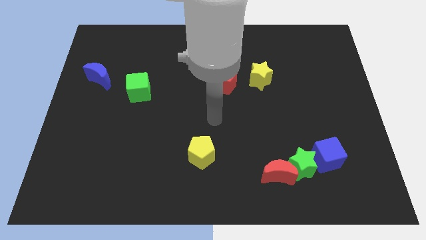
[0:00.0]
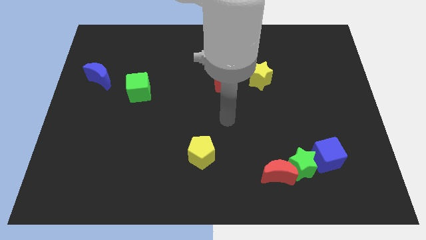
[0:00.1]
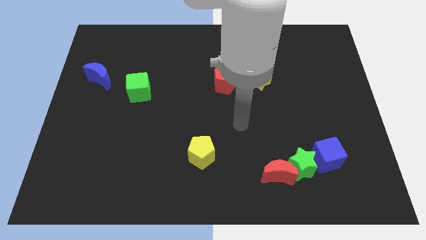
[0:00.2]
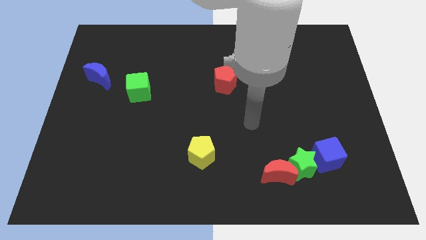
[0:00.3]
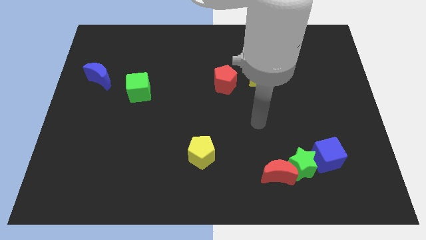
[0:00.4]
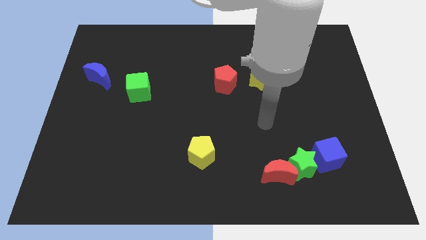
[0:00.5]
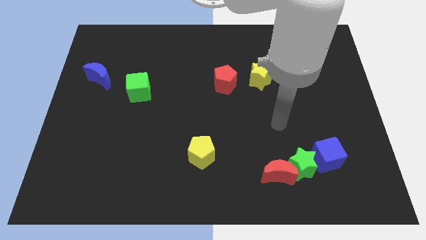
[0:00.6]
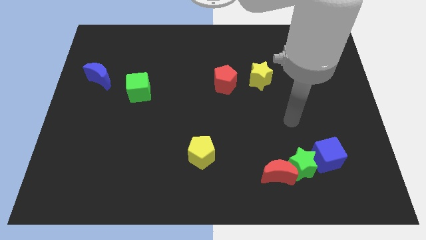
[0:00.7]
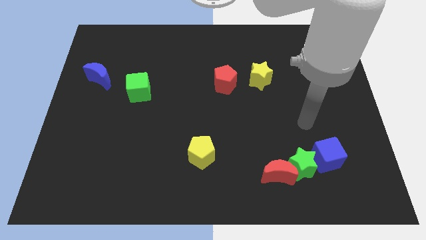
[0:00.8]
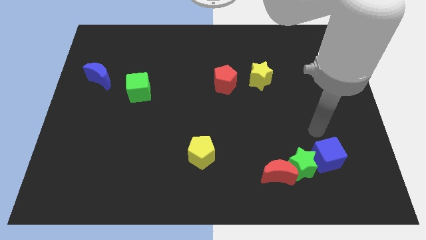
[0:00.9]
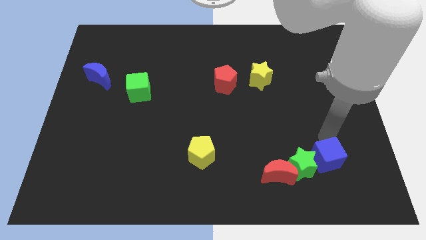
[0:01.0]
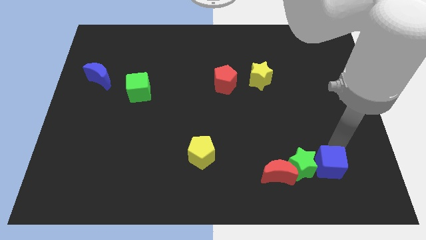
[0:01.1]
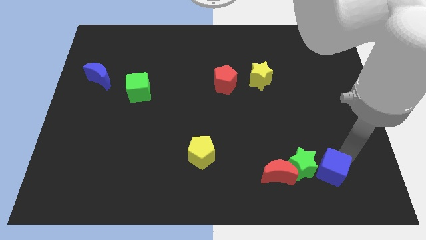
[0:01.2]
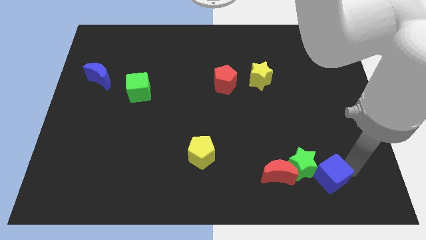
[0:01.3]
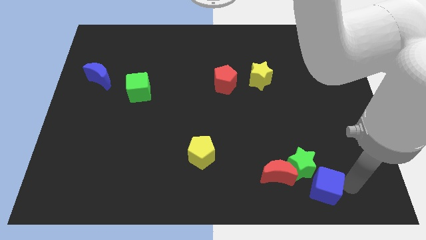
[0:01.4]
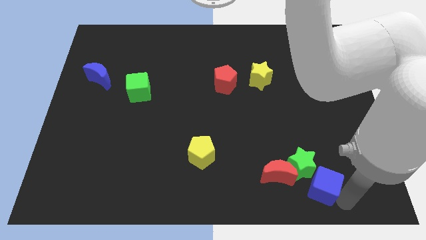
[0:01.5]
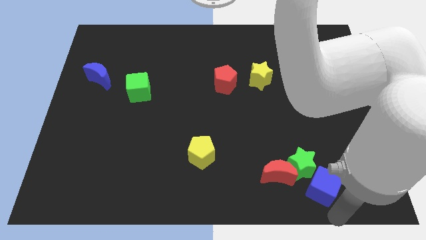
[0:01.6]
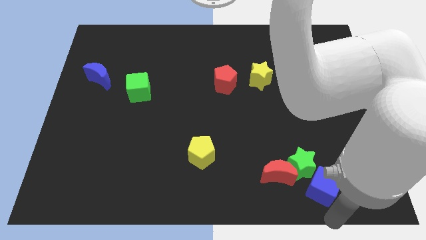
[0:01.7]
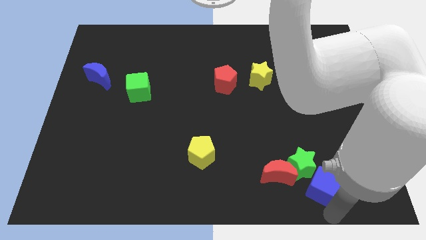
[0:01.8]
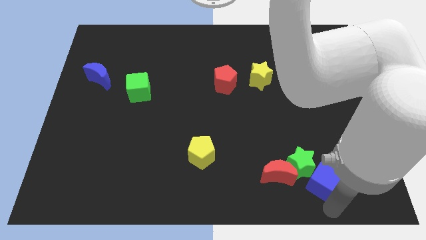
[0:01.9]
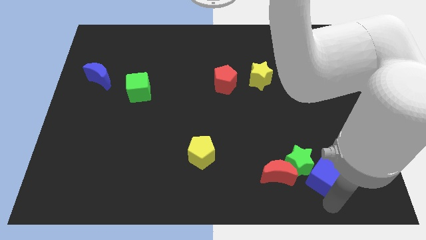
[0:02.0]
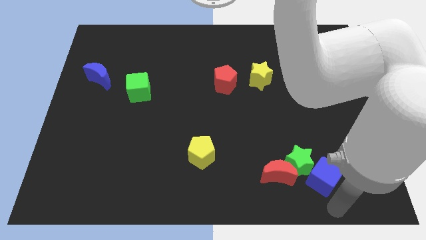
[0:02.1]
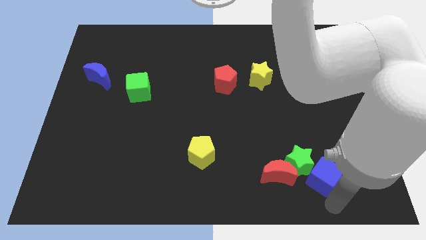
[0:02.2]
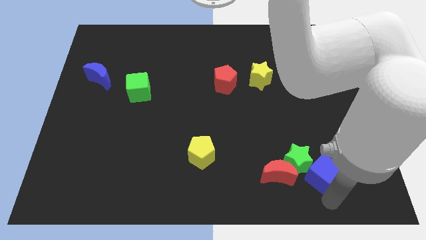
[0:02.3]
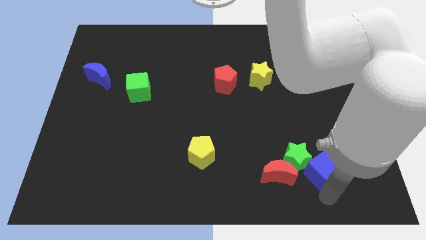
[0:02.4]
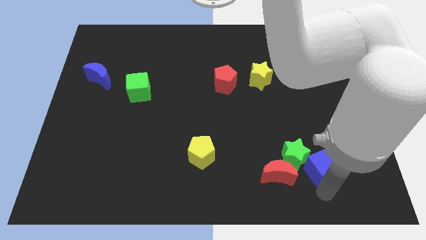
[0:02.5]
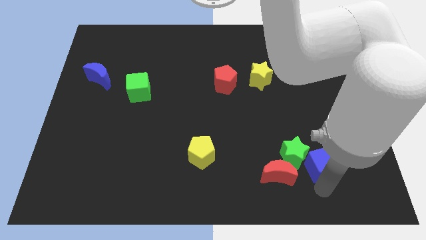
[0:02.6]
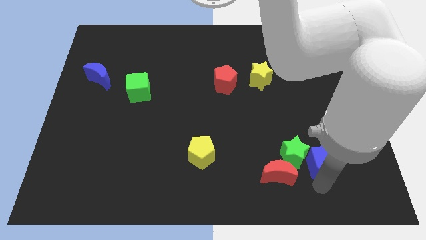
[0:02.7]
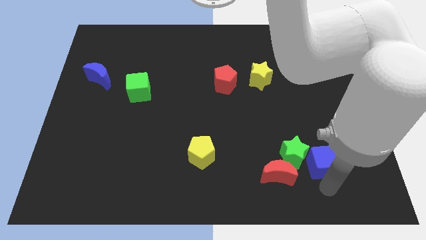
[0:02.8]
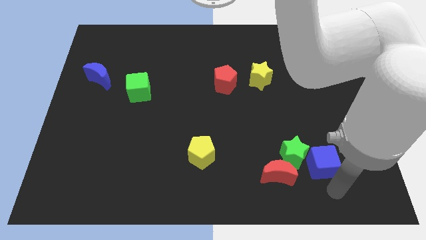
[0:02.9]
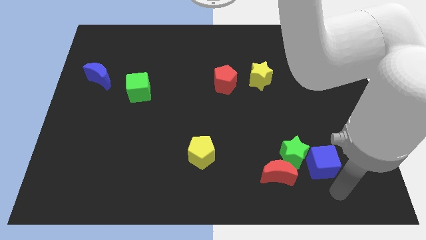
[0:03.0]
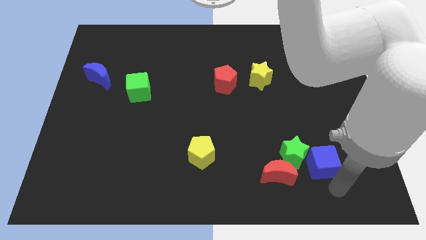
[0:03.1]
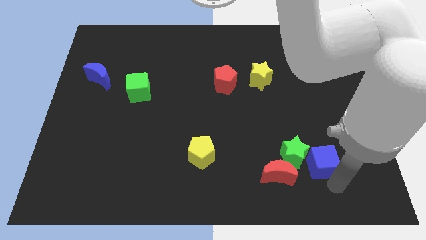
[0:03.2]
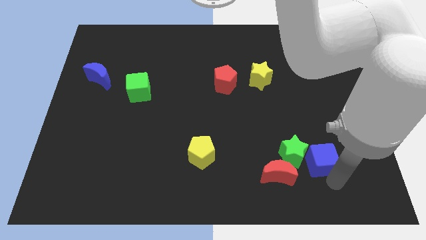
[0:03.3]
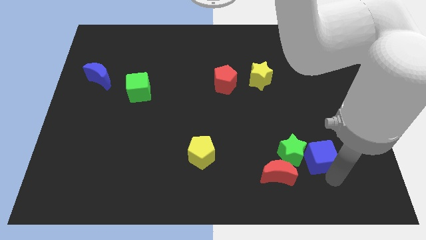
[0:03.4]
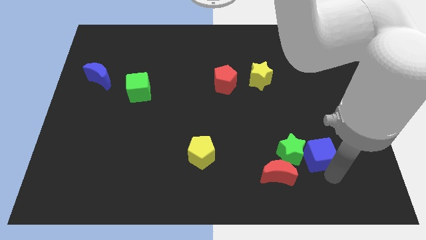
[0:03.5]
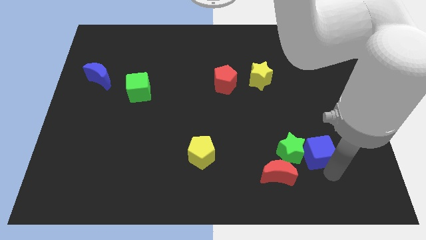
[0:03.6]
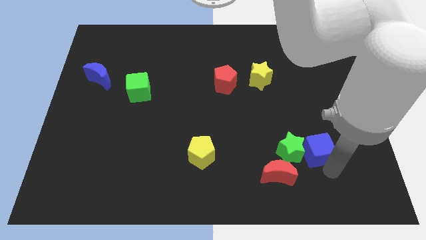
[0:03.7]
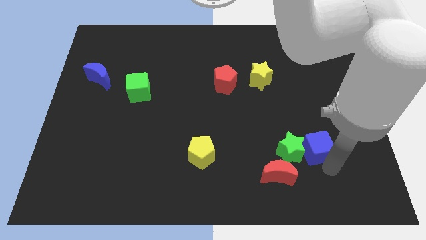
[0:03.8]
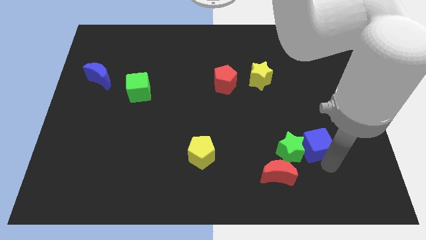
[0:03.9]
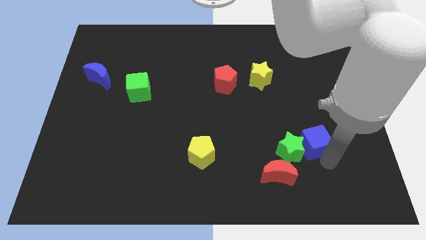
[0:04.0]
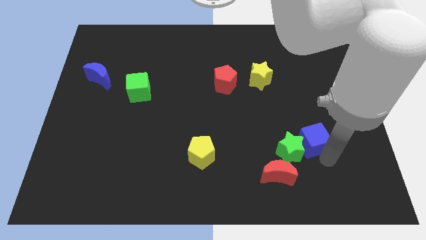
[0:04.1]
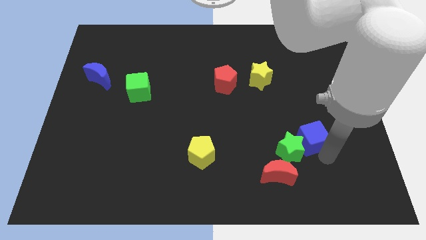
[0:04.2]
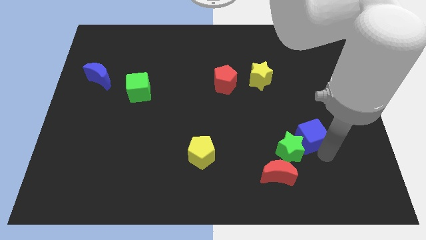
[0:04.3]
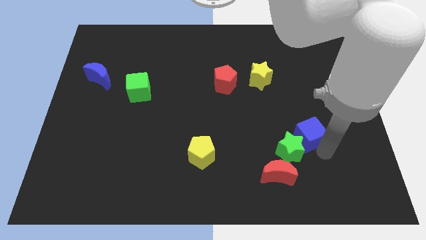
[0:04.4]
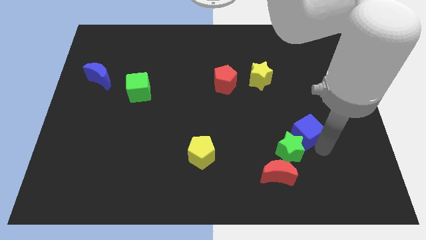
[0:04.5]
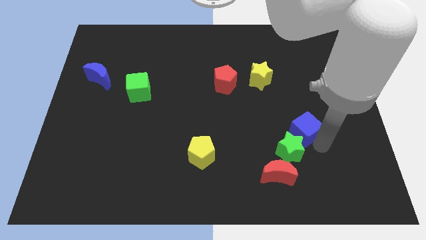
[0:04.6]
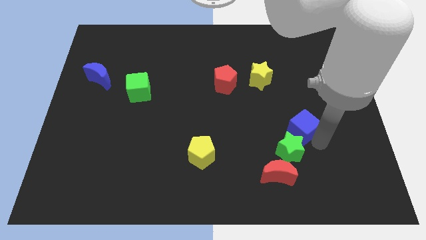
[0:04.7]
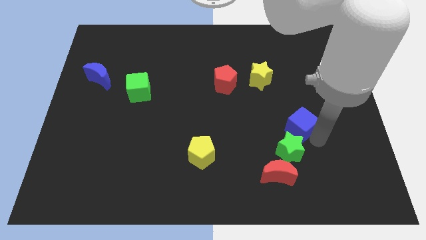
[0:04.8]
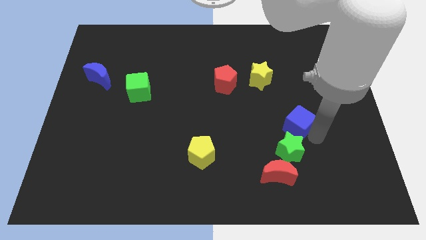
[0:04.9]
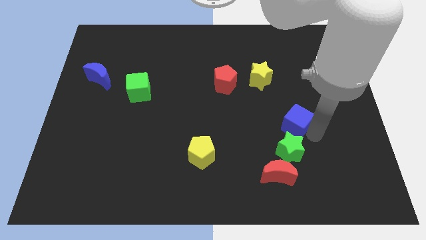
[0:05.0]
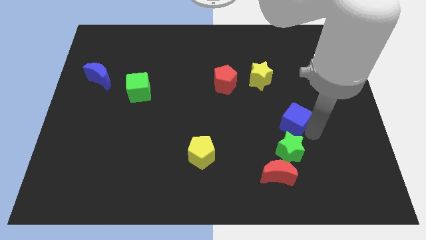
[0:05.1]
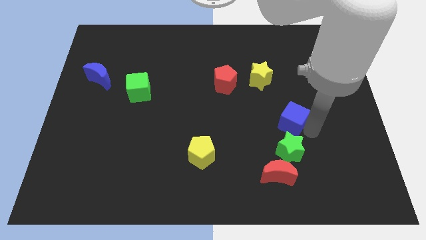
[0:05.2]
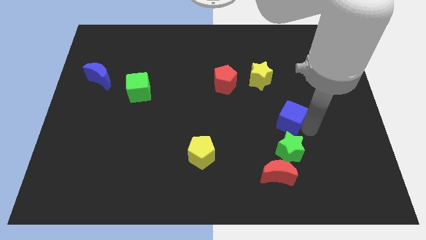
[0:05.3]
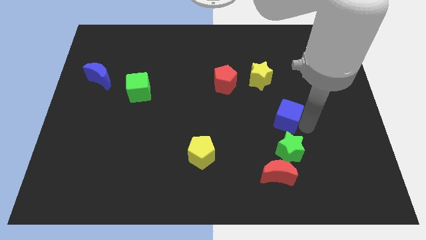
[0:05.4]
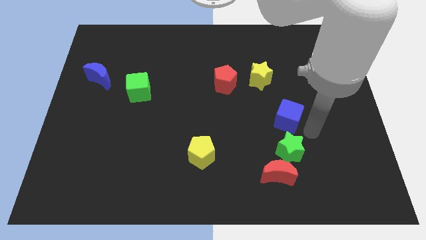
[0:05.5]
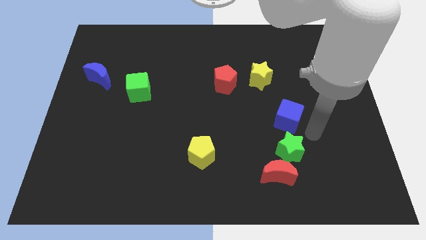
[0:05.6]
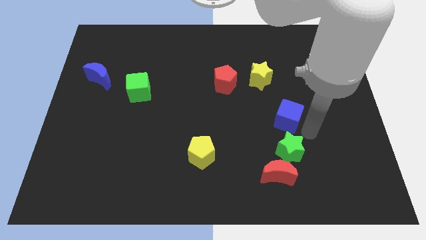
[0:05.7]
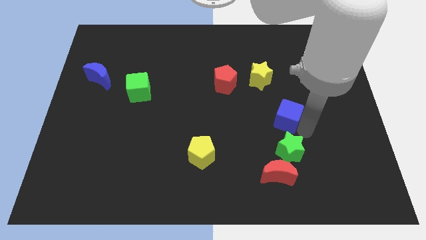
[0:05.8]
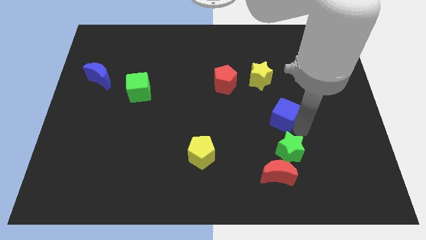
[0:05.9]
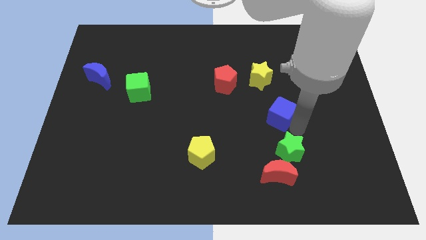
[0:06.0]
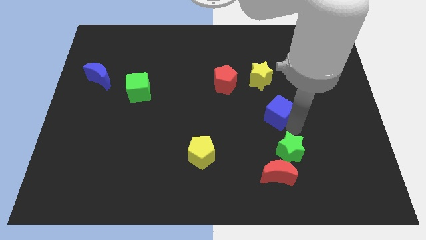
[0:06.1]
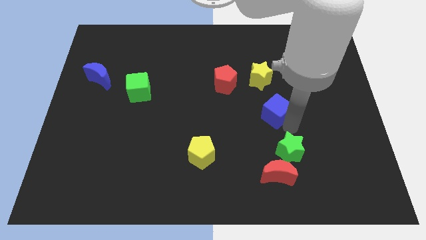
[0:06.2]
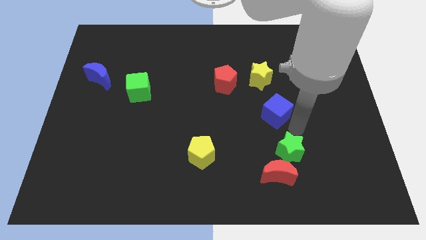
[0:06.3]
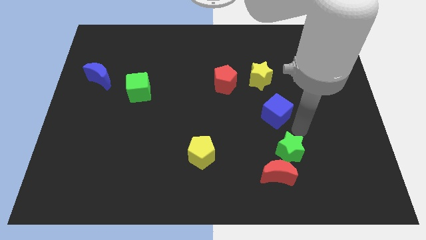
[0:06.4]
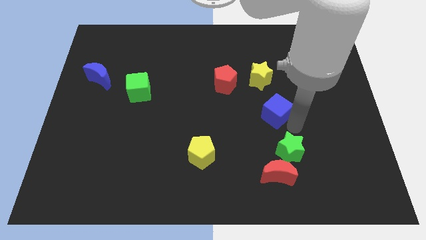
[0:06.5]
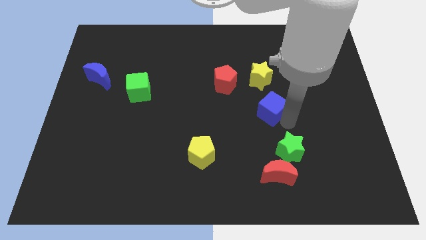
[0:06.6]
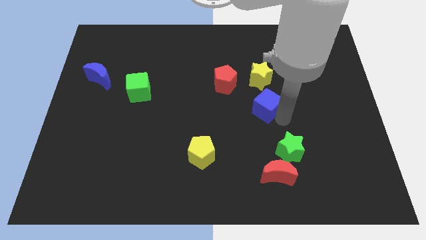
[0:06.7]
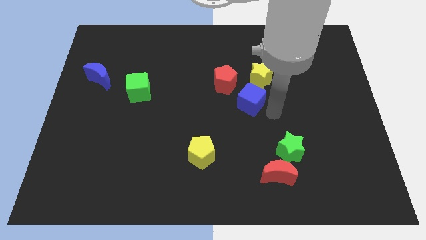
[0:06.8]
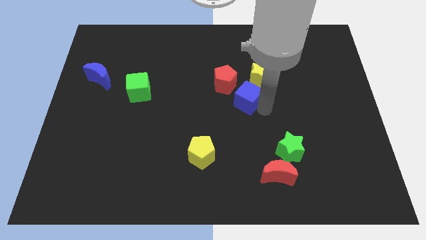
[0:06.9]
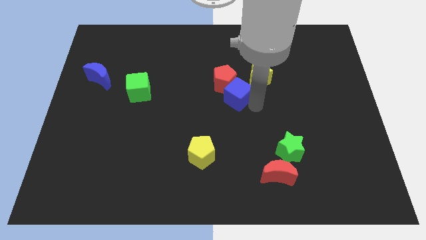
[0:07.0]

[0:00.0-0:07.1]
move the blue cube towards the red pentagon
